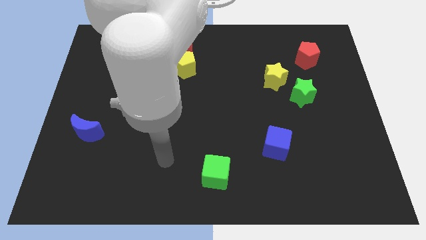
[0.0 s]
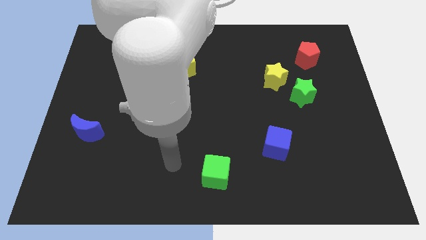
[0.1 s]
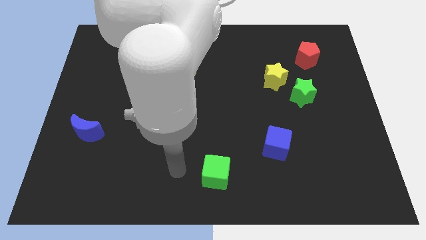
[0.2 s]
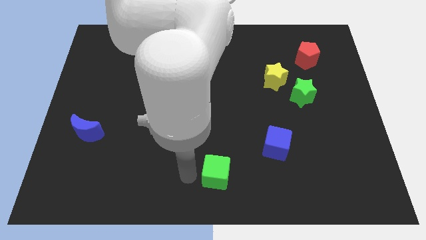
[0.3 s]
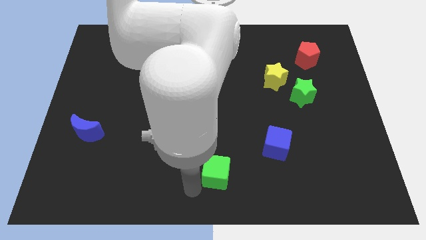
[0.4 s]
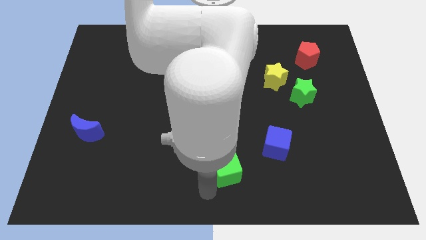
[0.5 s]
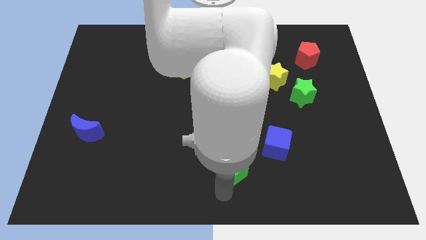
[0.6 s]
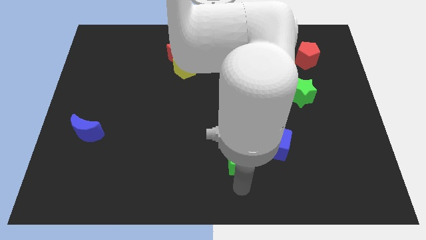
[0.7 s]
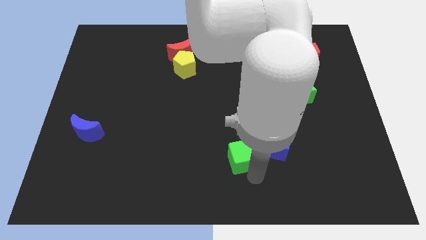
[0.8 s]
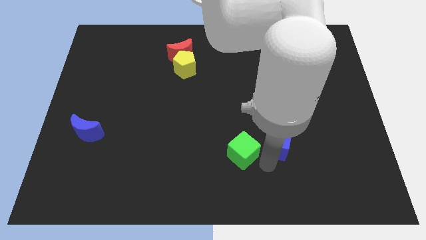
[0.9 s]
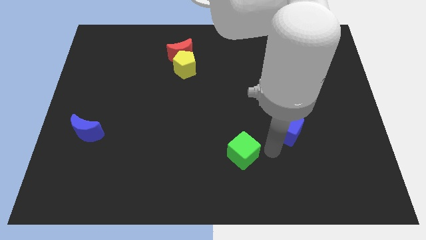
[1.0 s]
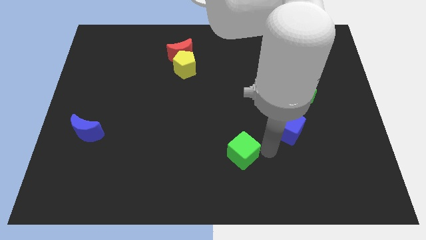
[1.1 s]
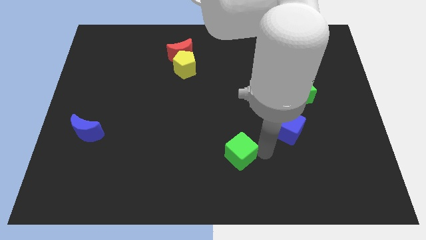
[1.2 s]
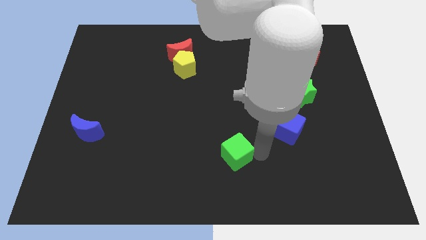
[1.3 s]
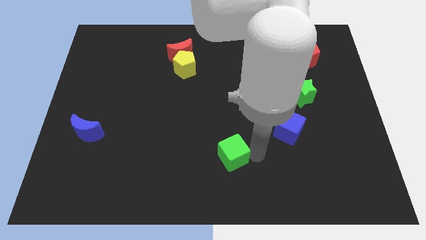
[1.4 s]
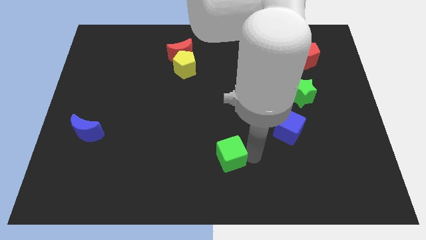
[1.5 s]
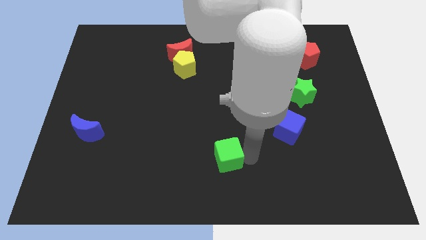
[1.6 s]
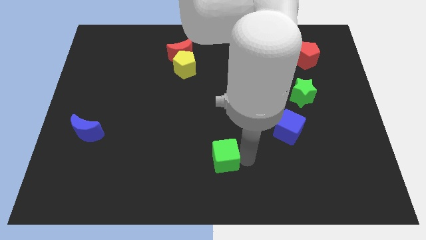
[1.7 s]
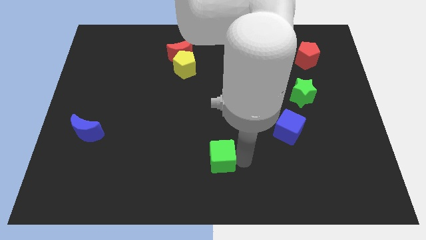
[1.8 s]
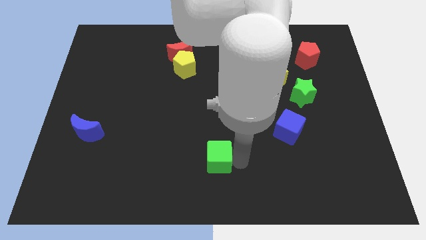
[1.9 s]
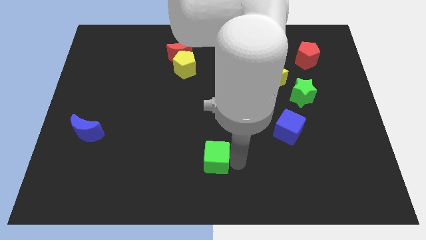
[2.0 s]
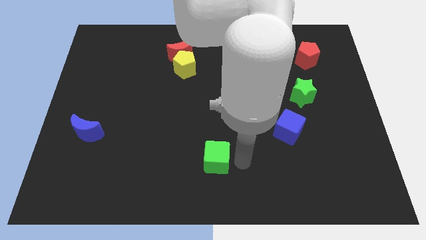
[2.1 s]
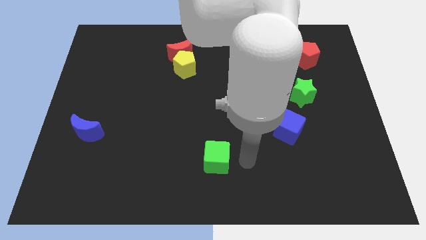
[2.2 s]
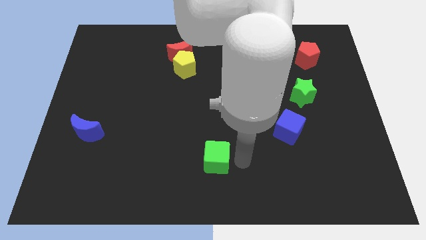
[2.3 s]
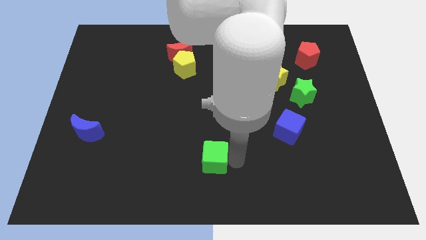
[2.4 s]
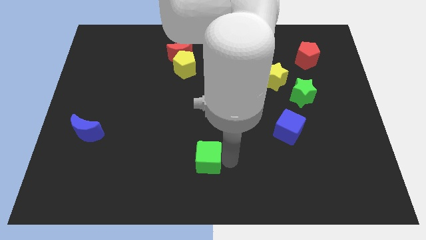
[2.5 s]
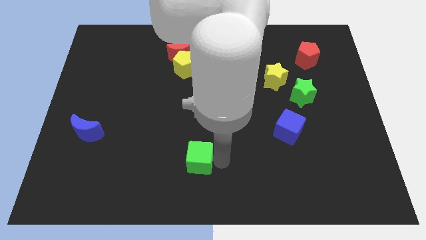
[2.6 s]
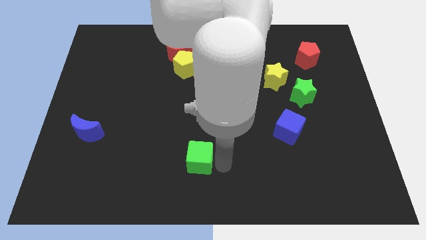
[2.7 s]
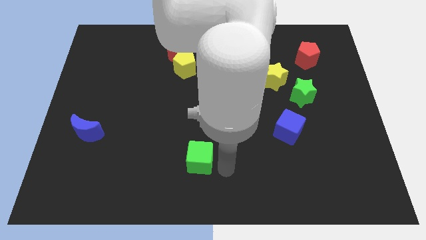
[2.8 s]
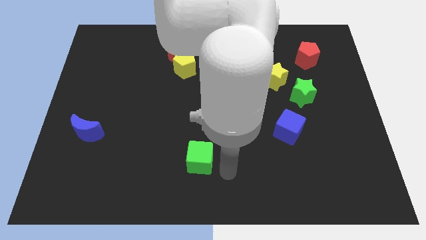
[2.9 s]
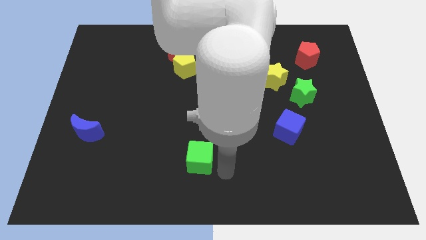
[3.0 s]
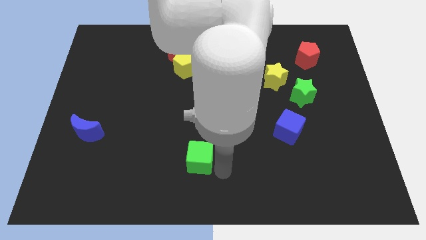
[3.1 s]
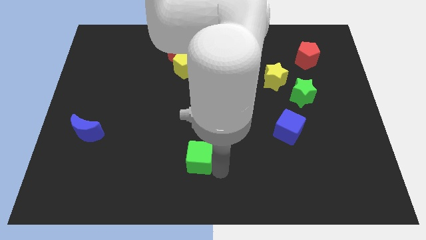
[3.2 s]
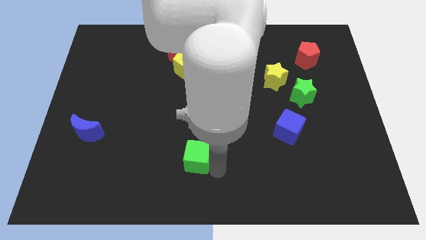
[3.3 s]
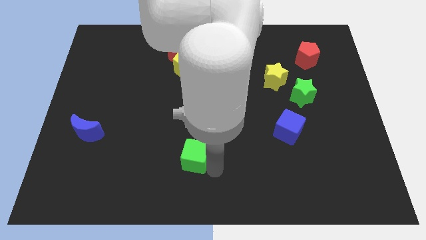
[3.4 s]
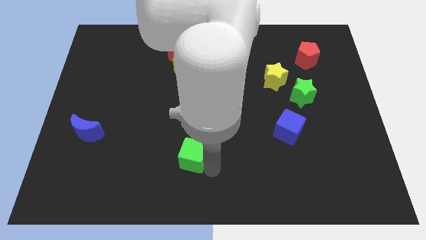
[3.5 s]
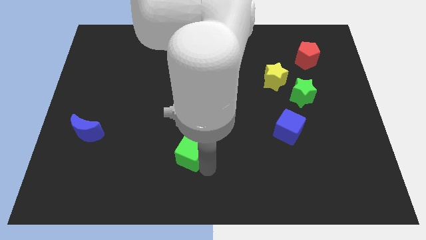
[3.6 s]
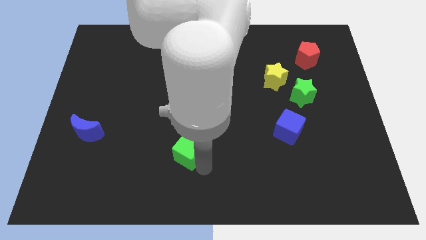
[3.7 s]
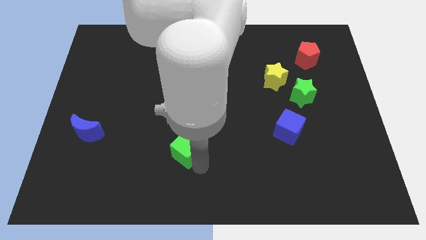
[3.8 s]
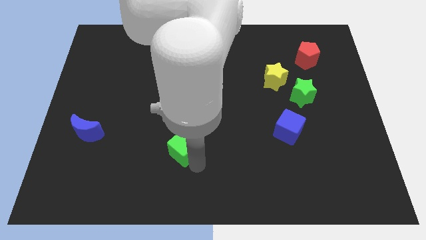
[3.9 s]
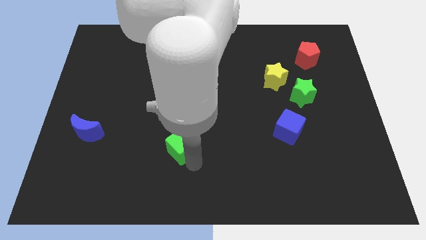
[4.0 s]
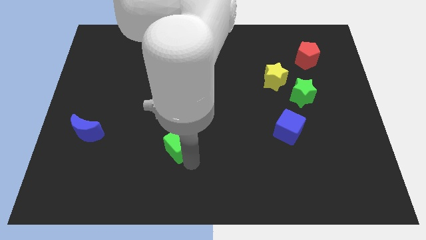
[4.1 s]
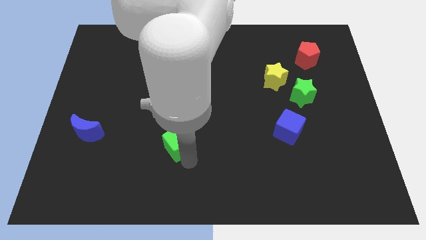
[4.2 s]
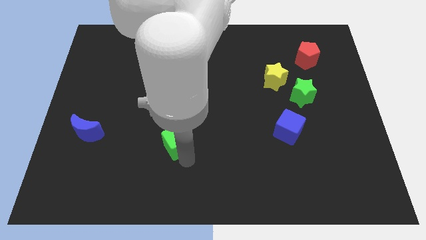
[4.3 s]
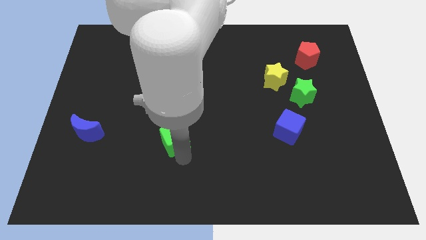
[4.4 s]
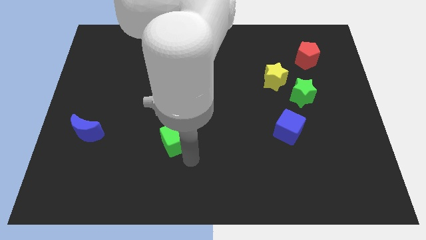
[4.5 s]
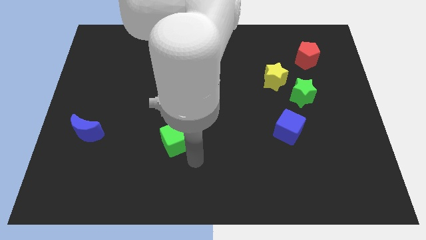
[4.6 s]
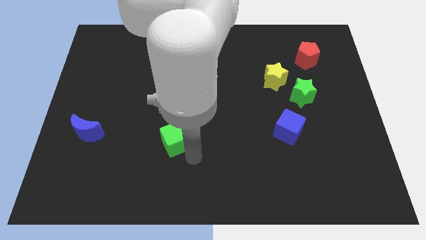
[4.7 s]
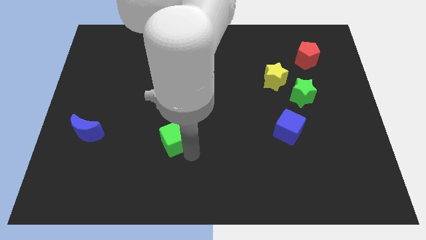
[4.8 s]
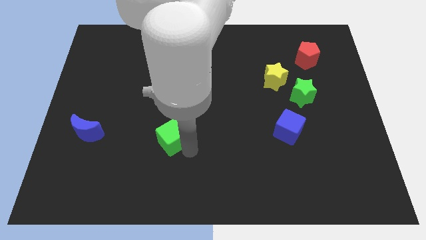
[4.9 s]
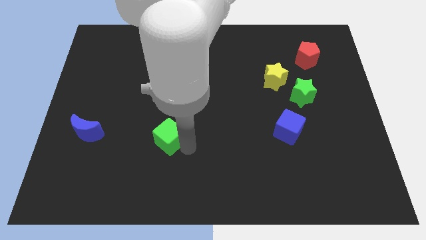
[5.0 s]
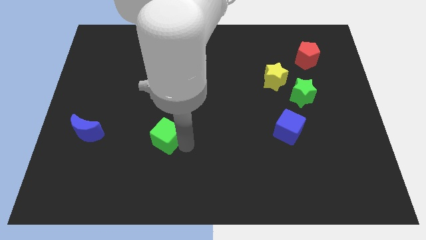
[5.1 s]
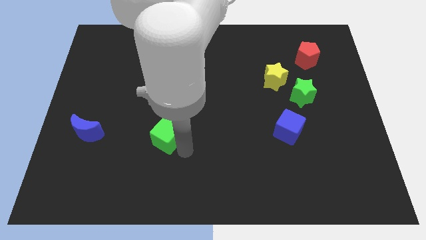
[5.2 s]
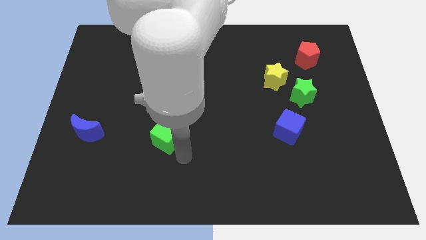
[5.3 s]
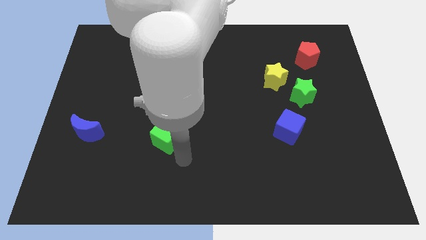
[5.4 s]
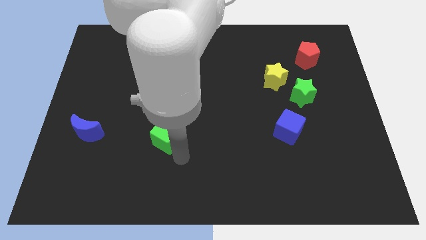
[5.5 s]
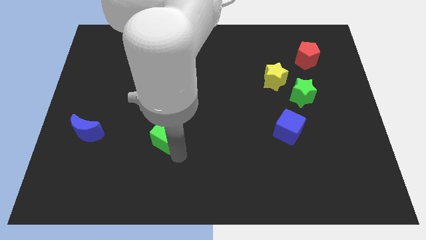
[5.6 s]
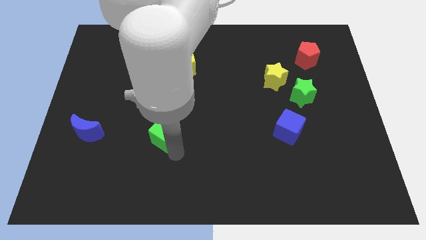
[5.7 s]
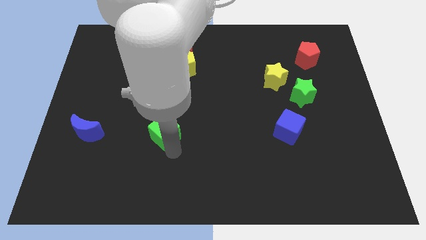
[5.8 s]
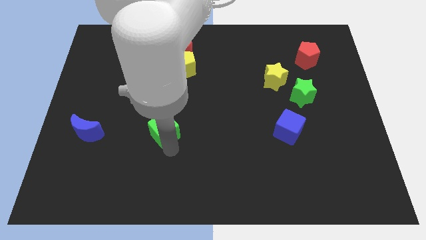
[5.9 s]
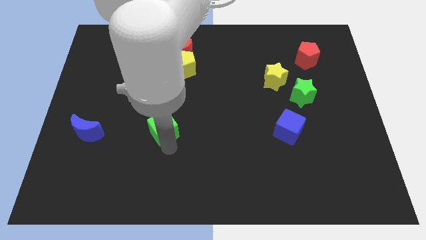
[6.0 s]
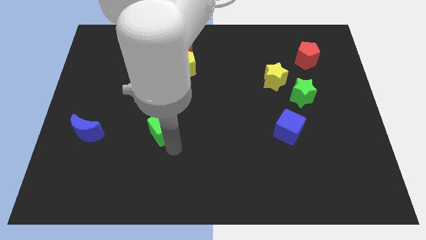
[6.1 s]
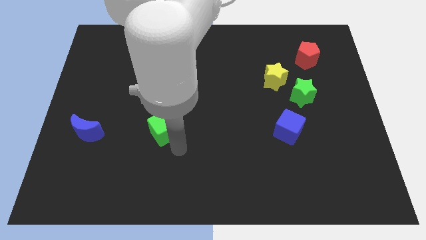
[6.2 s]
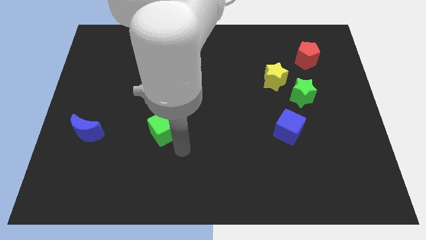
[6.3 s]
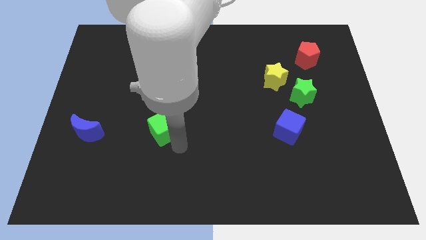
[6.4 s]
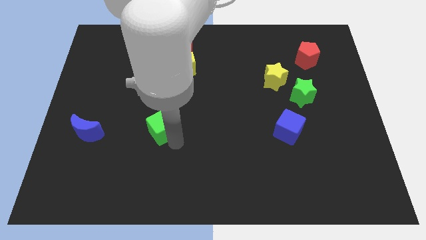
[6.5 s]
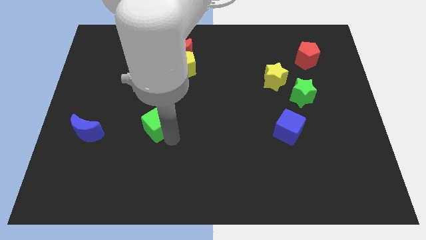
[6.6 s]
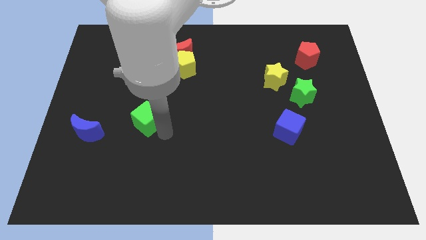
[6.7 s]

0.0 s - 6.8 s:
slide the green cube diagonally up and left

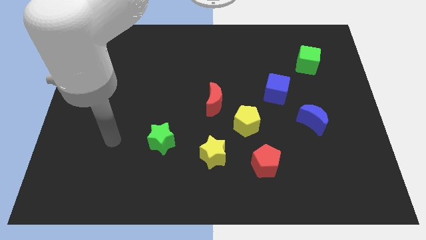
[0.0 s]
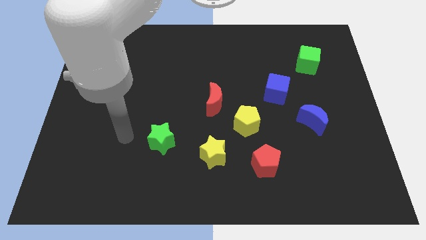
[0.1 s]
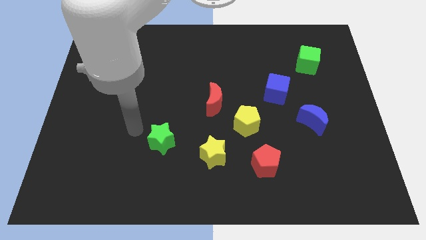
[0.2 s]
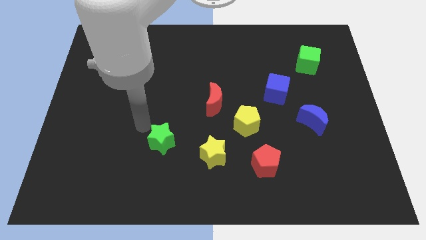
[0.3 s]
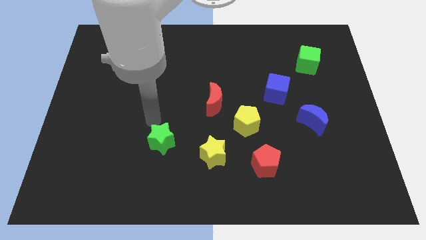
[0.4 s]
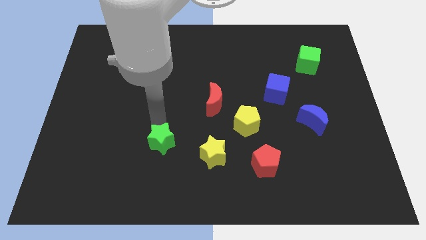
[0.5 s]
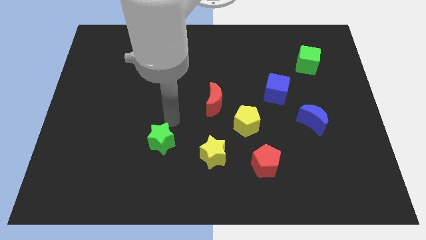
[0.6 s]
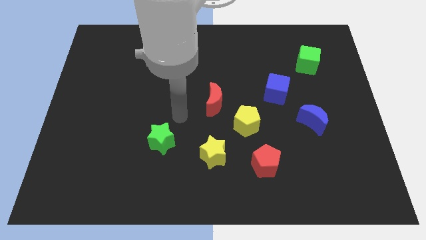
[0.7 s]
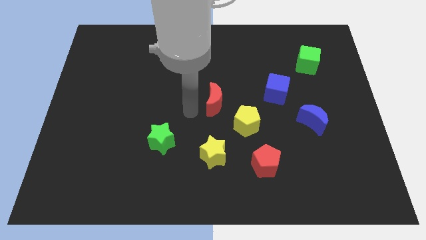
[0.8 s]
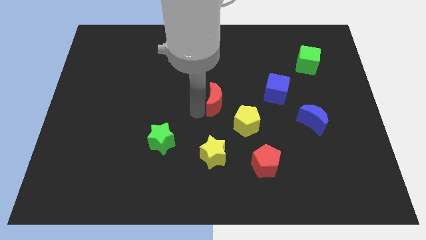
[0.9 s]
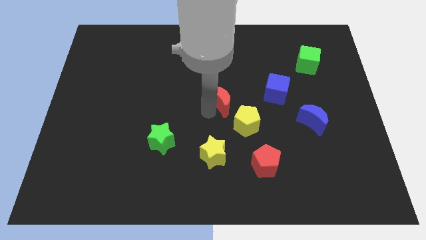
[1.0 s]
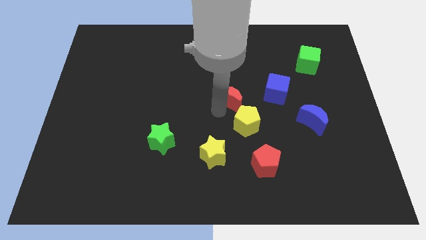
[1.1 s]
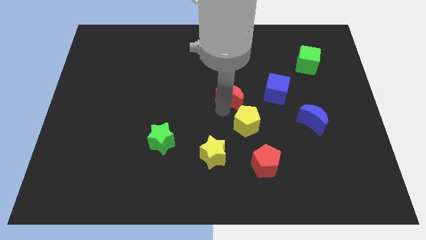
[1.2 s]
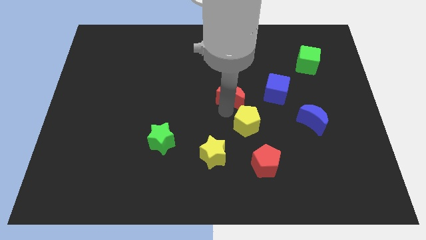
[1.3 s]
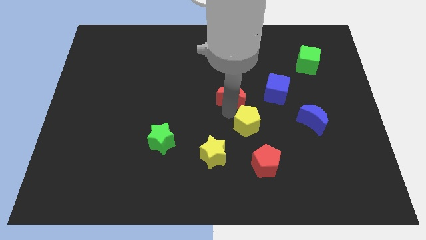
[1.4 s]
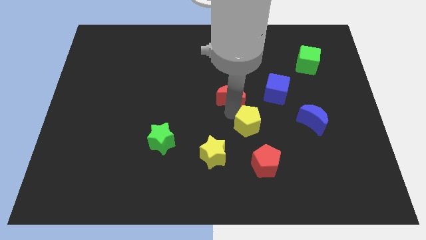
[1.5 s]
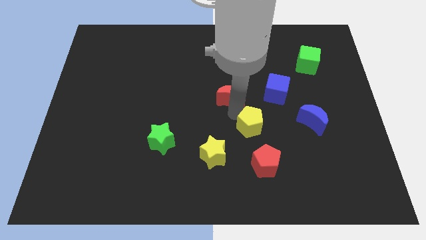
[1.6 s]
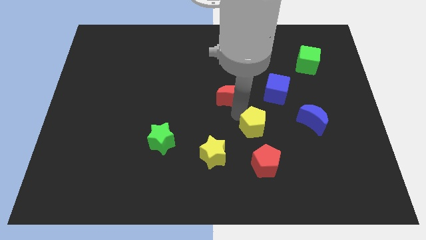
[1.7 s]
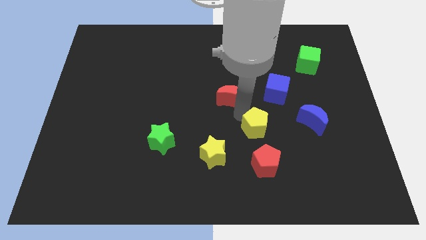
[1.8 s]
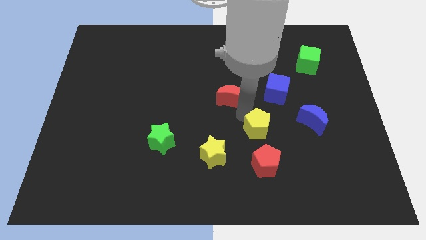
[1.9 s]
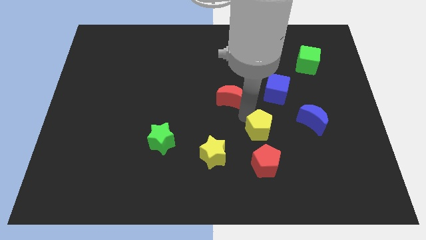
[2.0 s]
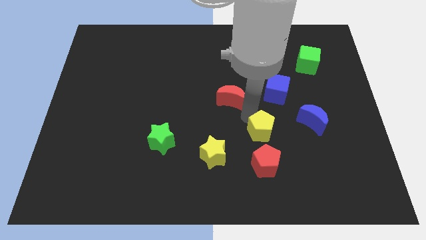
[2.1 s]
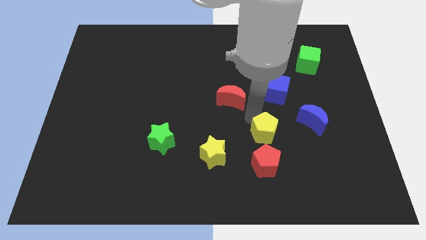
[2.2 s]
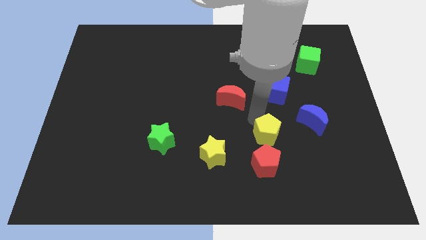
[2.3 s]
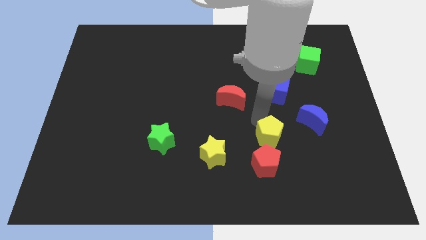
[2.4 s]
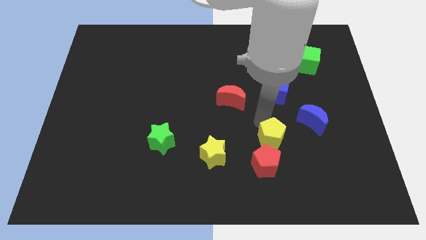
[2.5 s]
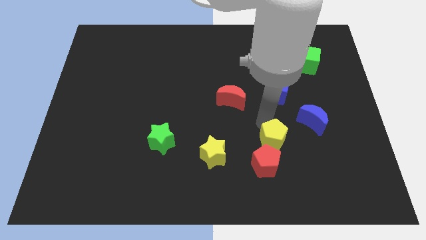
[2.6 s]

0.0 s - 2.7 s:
slightly move the yellow pentagon downwards and to the right diagonally
